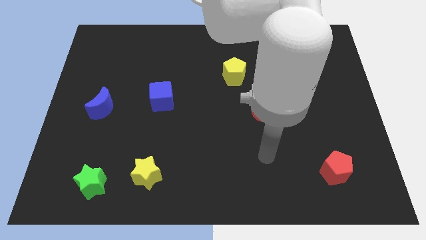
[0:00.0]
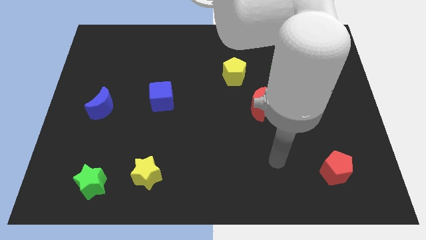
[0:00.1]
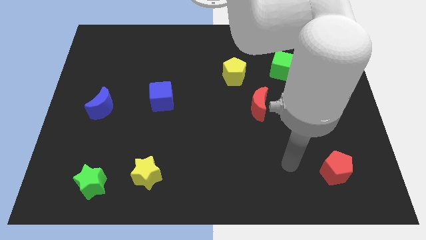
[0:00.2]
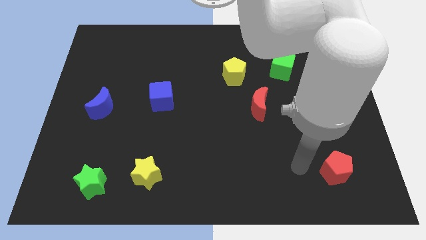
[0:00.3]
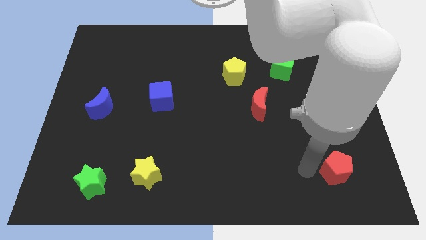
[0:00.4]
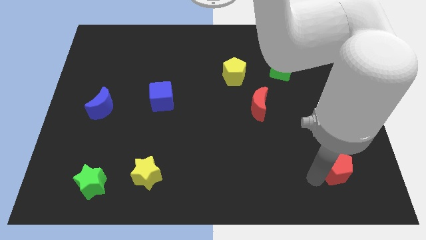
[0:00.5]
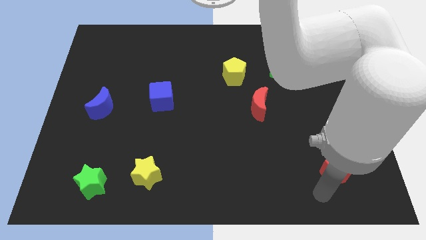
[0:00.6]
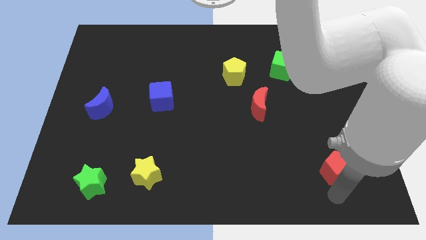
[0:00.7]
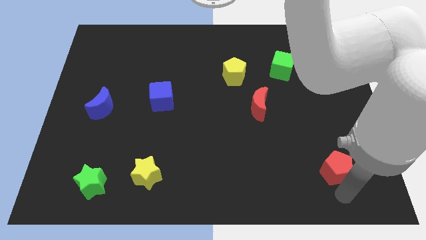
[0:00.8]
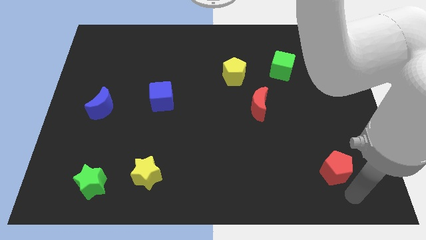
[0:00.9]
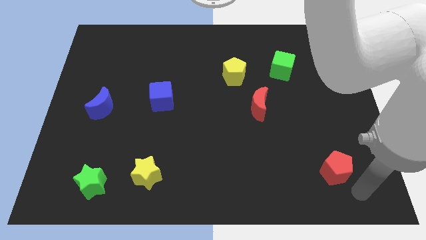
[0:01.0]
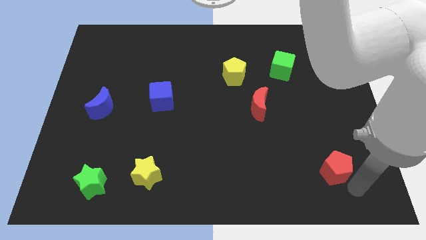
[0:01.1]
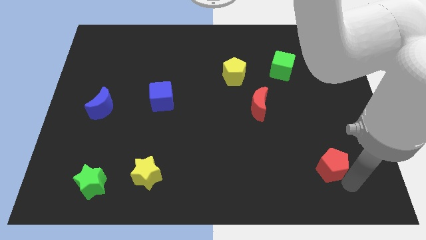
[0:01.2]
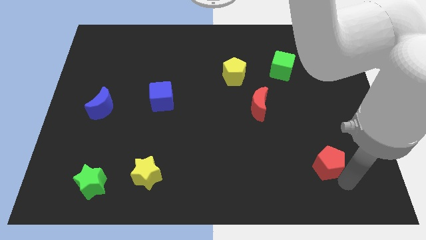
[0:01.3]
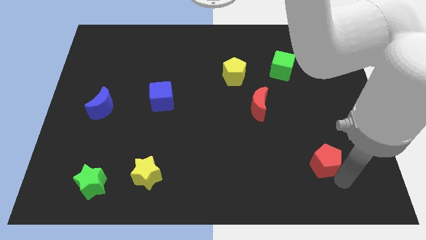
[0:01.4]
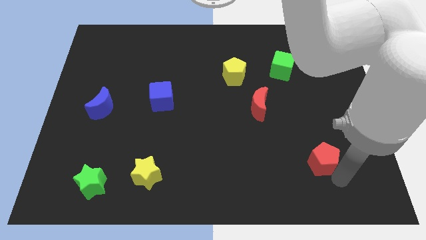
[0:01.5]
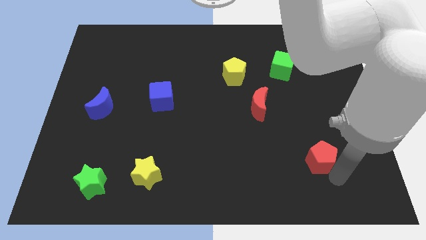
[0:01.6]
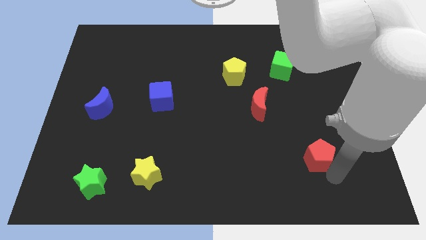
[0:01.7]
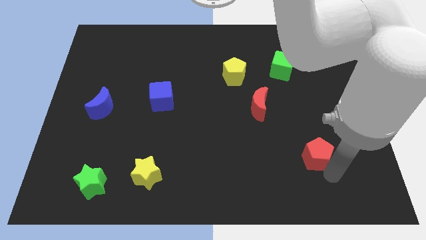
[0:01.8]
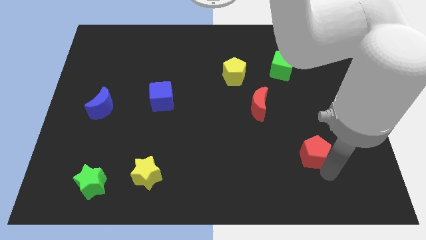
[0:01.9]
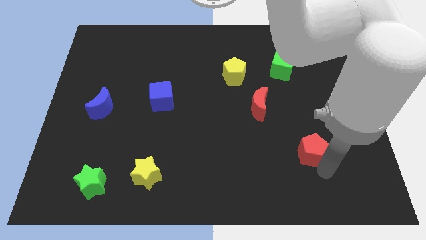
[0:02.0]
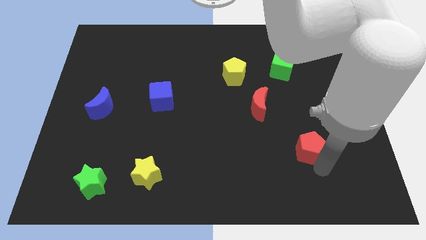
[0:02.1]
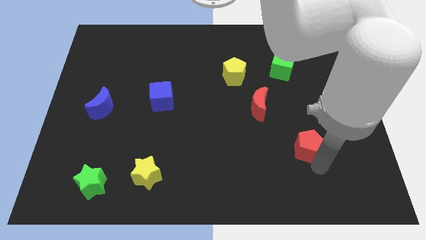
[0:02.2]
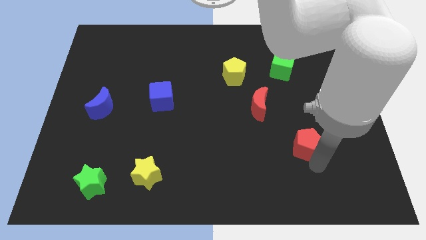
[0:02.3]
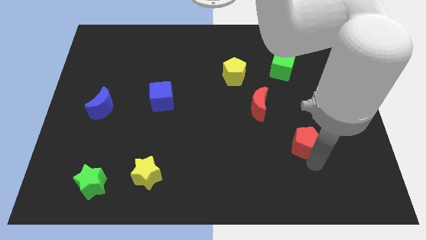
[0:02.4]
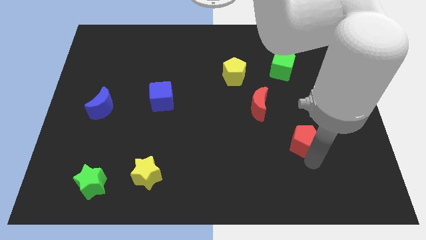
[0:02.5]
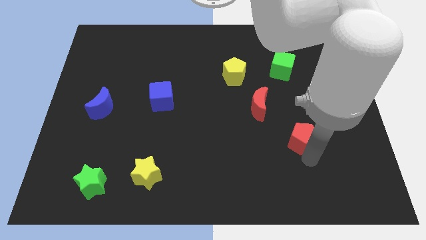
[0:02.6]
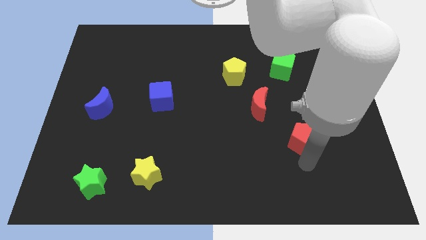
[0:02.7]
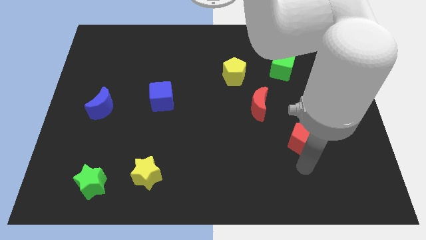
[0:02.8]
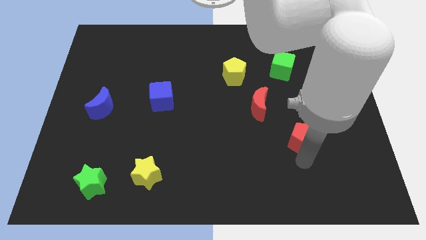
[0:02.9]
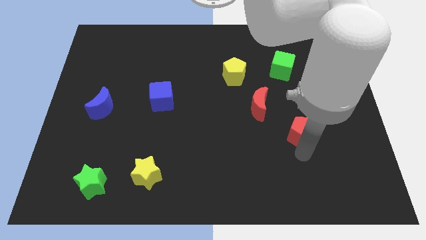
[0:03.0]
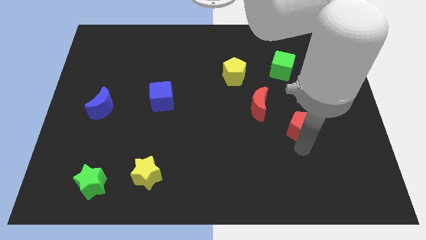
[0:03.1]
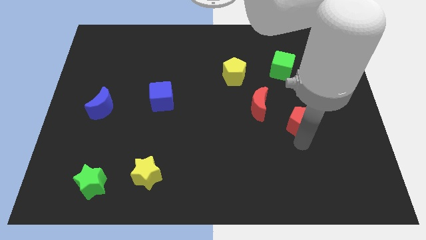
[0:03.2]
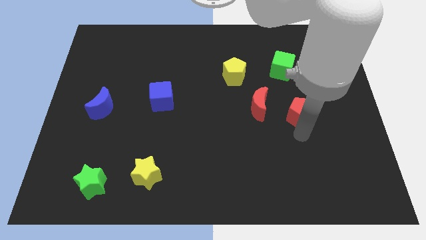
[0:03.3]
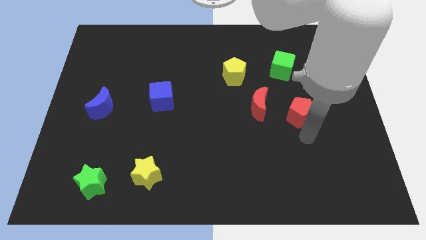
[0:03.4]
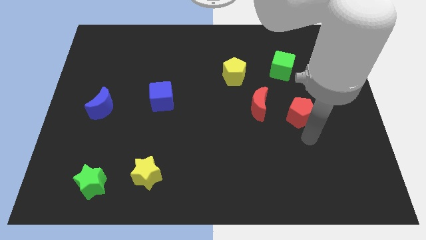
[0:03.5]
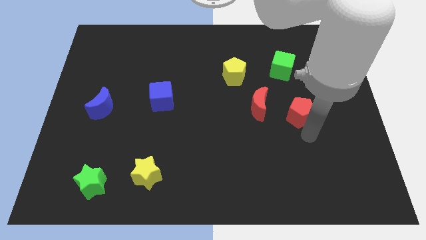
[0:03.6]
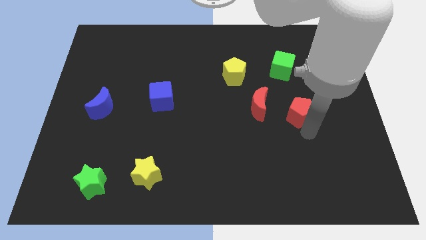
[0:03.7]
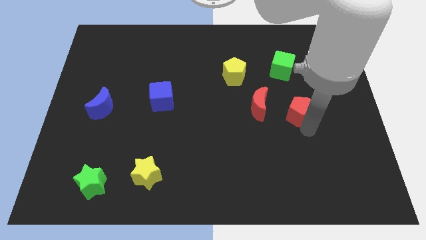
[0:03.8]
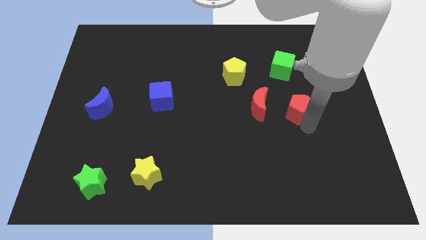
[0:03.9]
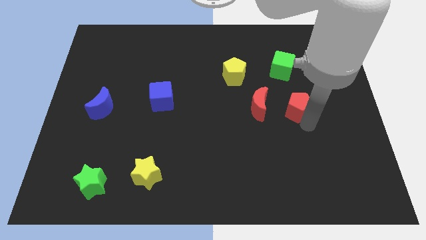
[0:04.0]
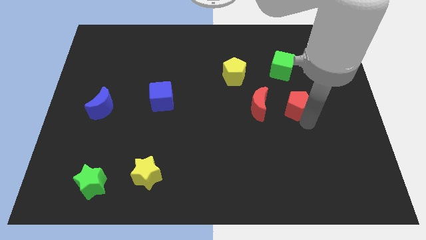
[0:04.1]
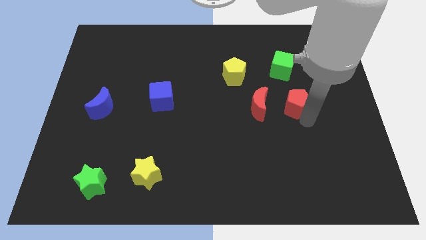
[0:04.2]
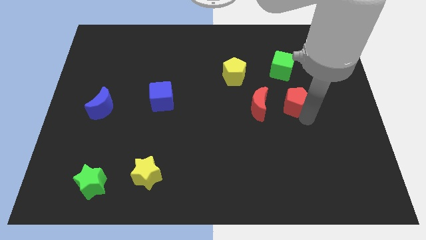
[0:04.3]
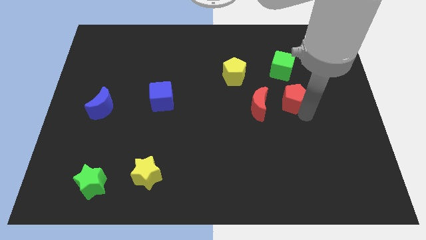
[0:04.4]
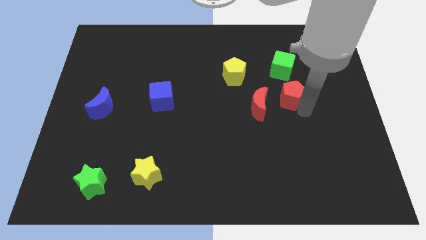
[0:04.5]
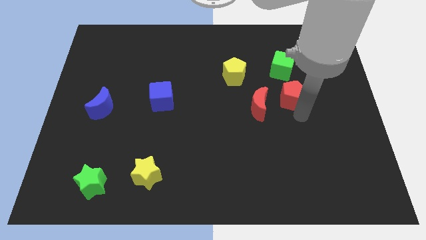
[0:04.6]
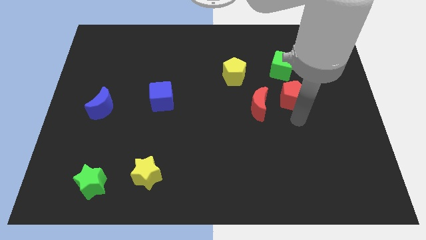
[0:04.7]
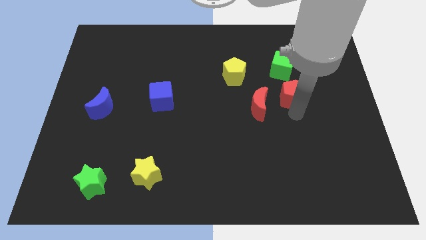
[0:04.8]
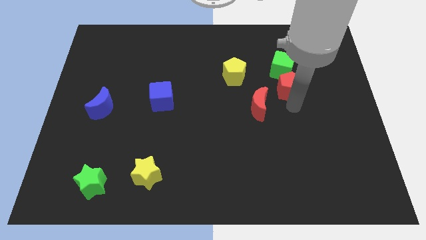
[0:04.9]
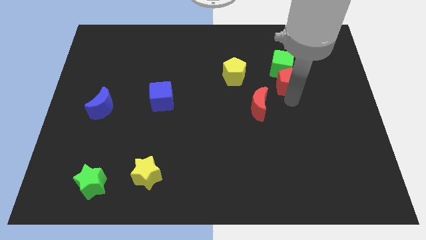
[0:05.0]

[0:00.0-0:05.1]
slide the red pentagon close to the green cube

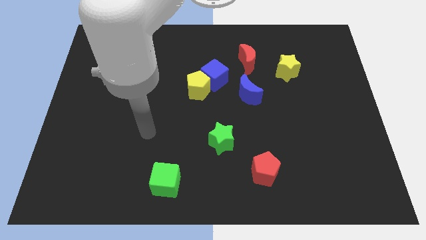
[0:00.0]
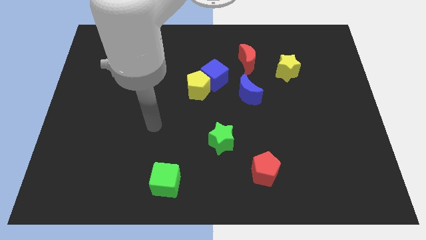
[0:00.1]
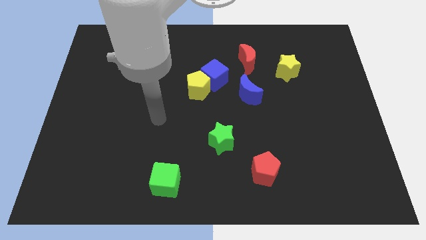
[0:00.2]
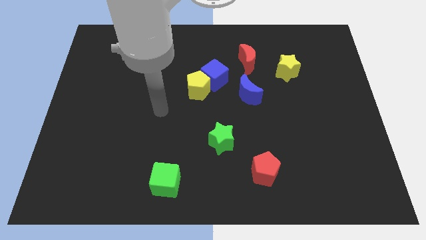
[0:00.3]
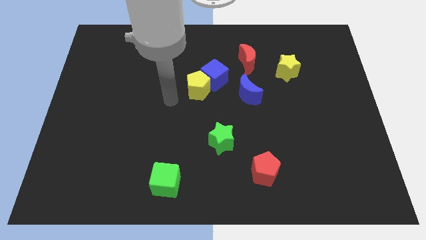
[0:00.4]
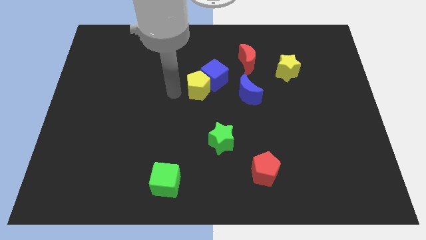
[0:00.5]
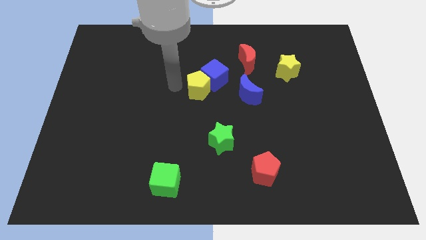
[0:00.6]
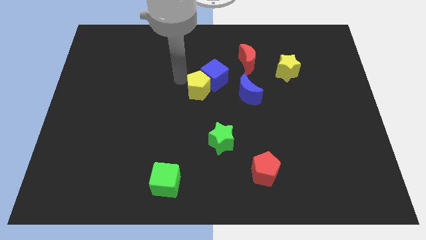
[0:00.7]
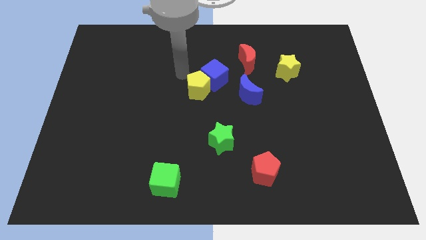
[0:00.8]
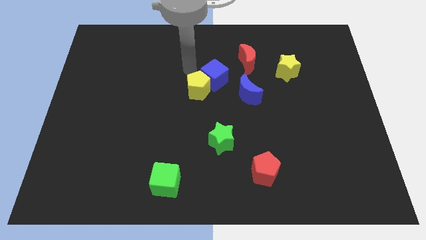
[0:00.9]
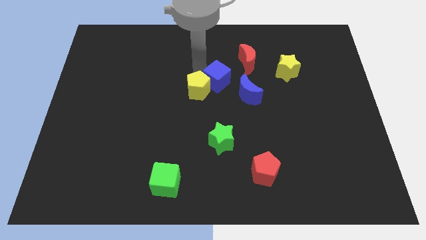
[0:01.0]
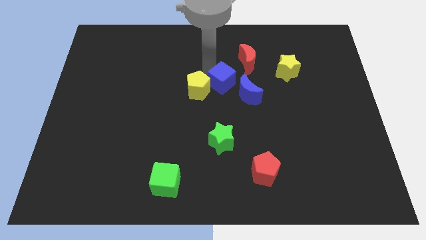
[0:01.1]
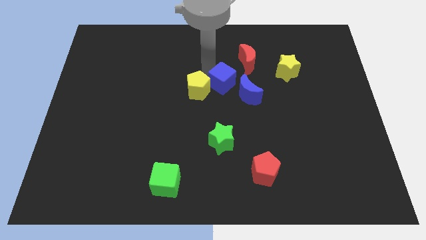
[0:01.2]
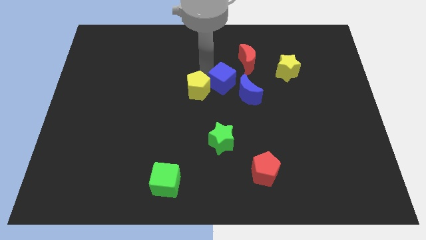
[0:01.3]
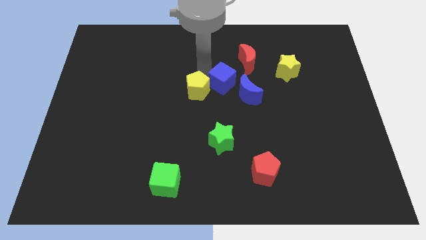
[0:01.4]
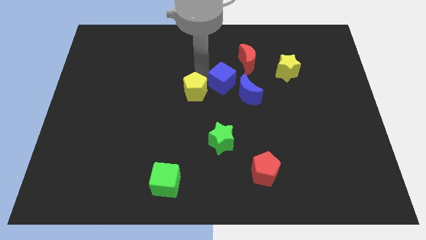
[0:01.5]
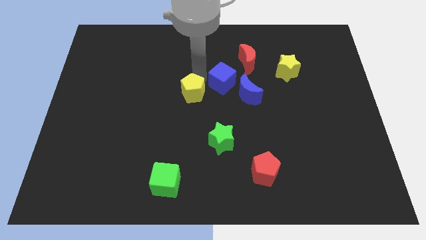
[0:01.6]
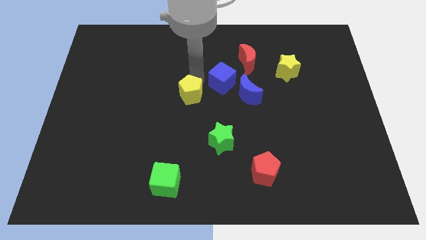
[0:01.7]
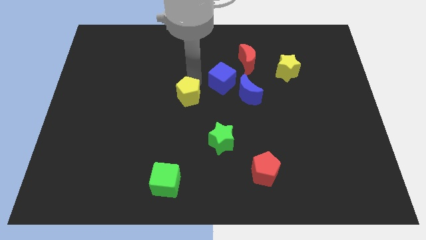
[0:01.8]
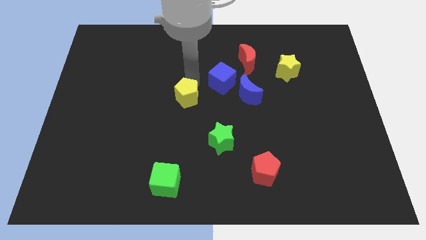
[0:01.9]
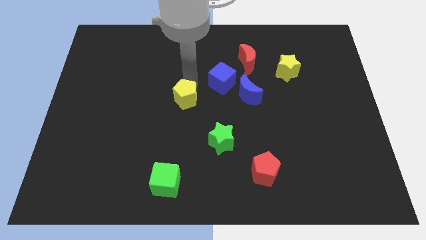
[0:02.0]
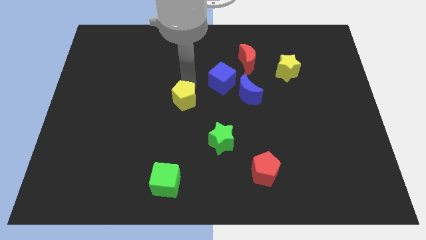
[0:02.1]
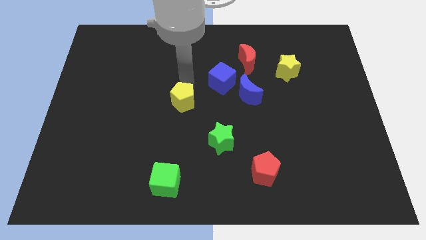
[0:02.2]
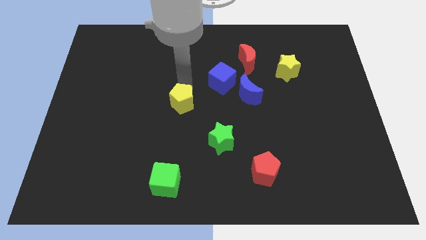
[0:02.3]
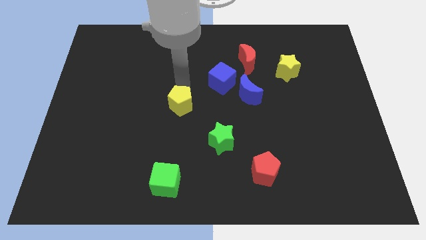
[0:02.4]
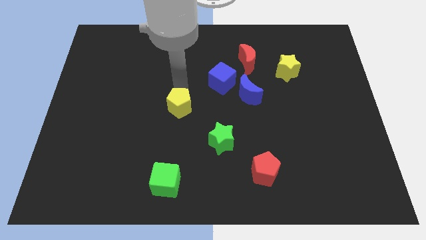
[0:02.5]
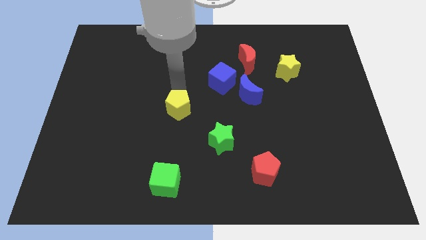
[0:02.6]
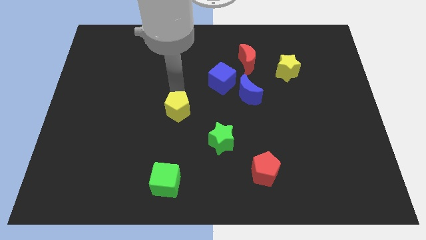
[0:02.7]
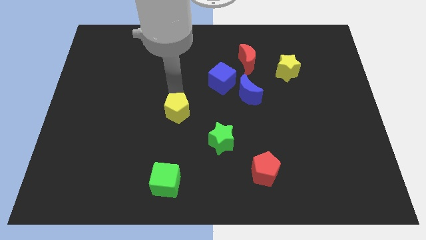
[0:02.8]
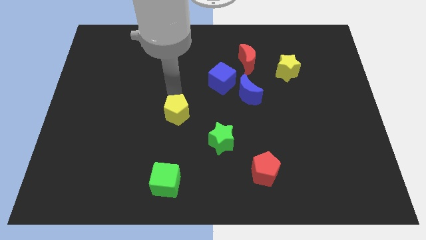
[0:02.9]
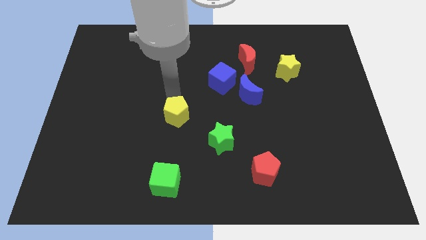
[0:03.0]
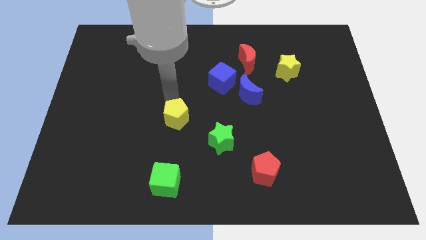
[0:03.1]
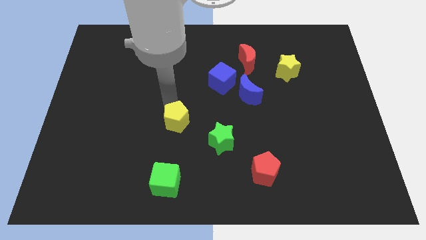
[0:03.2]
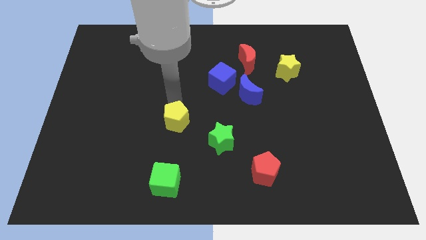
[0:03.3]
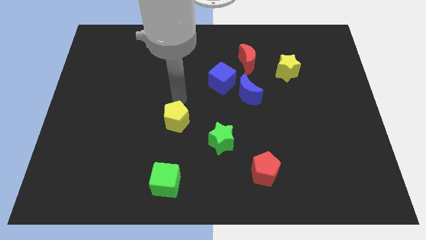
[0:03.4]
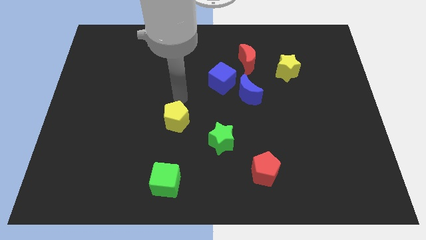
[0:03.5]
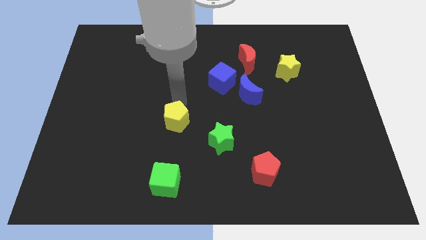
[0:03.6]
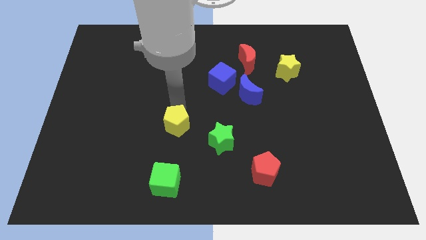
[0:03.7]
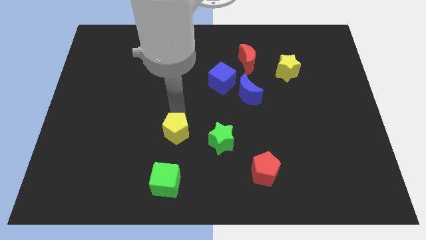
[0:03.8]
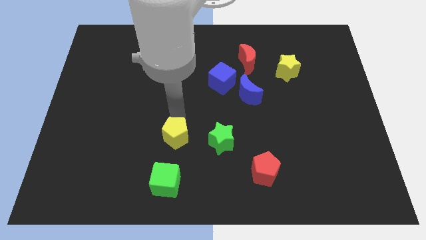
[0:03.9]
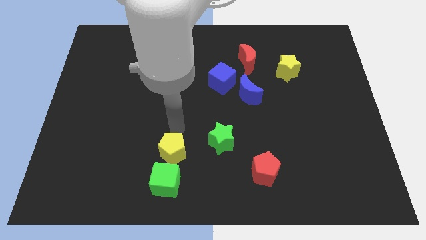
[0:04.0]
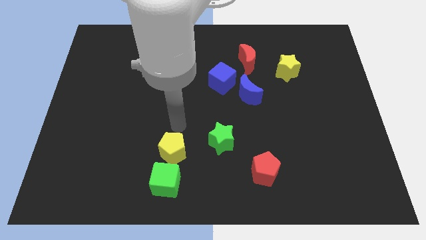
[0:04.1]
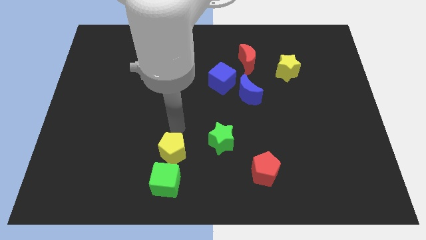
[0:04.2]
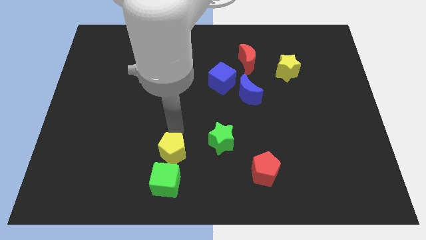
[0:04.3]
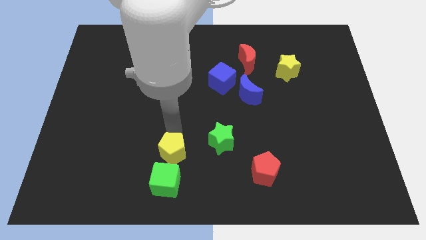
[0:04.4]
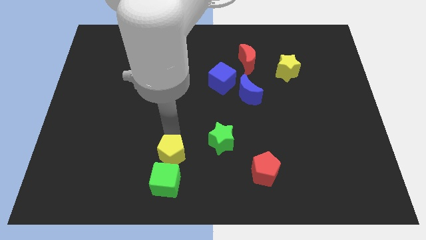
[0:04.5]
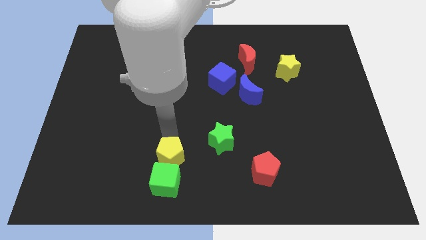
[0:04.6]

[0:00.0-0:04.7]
move the yellow pentagon to the green cube
